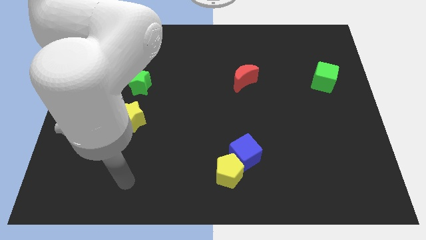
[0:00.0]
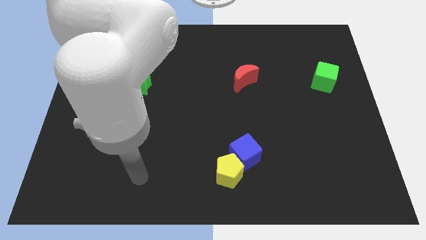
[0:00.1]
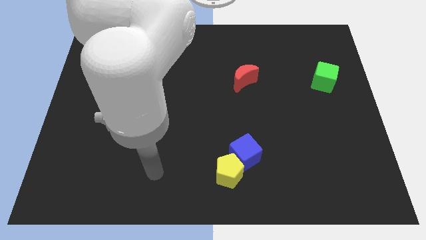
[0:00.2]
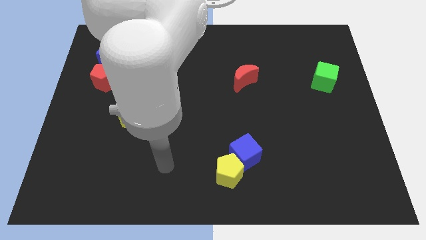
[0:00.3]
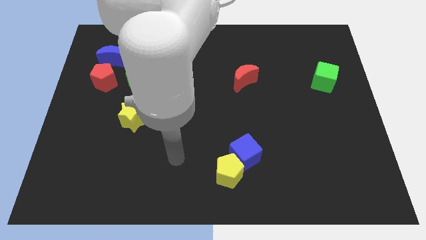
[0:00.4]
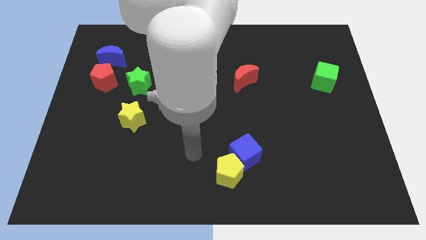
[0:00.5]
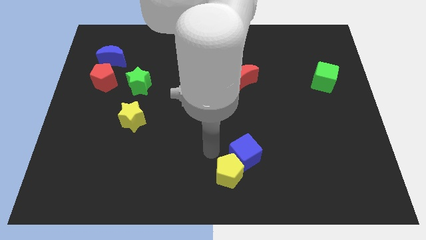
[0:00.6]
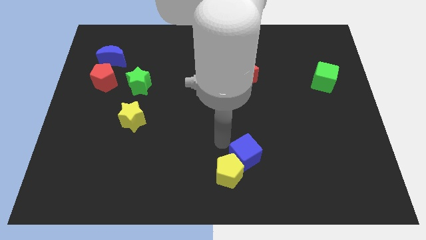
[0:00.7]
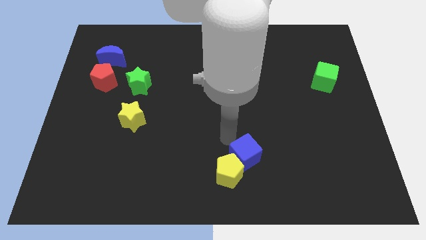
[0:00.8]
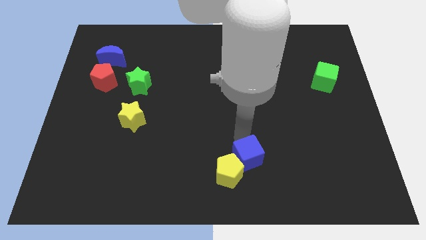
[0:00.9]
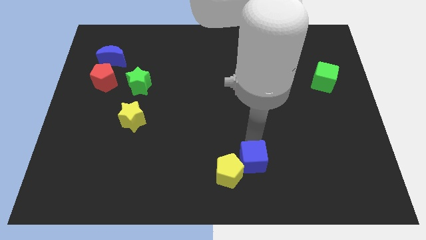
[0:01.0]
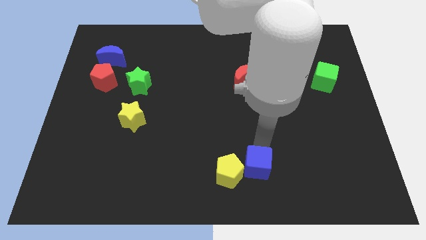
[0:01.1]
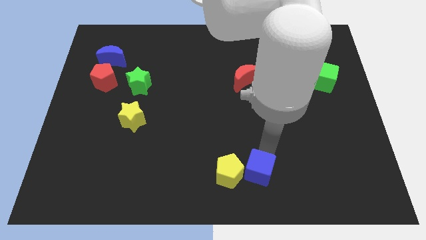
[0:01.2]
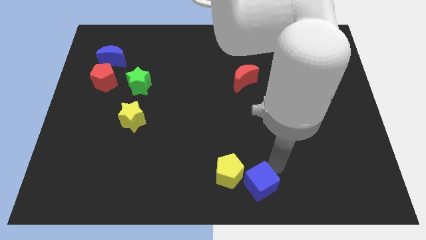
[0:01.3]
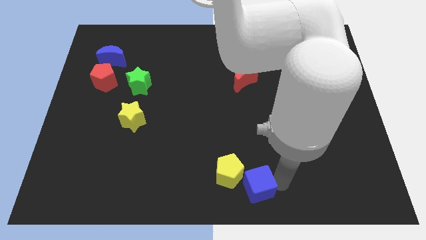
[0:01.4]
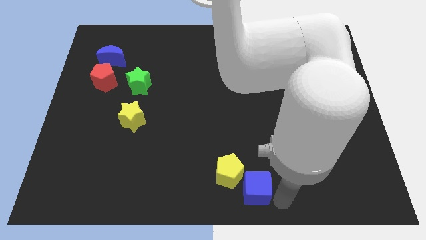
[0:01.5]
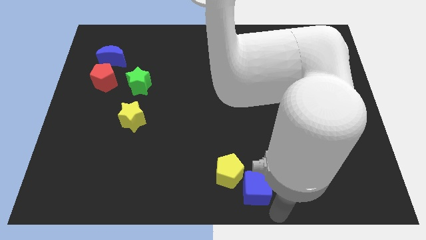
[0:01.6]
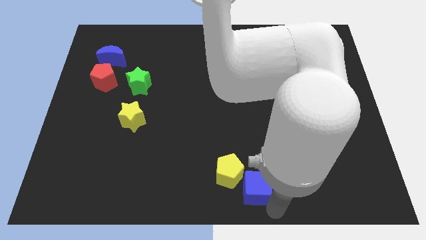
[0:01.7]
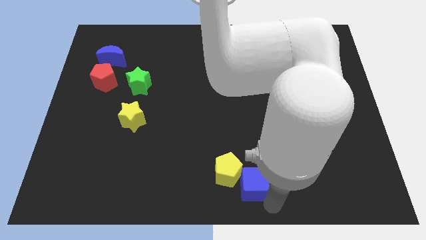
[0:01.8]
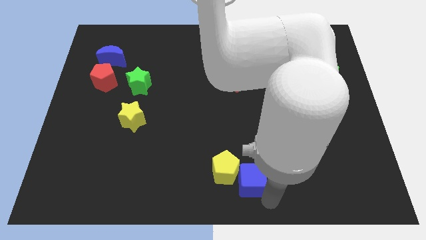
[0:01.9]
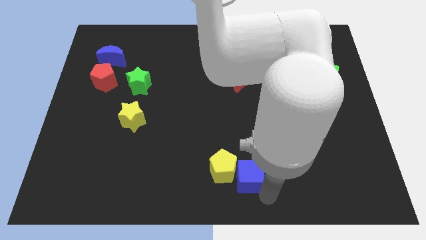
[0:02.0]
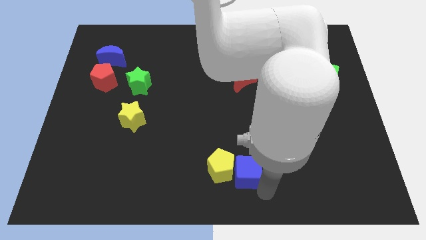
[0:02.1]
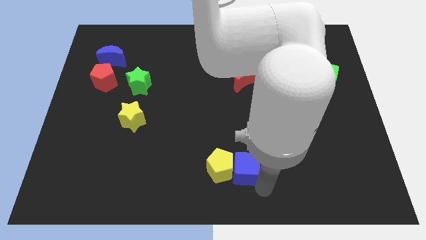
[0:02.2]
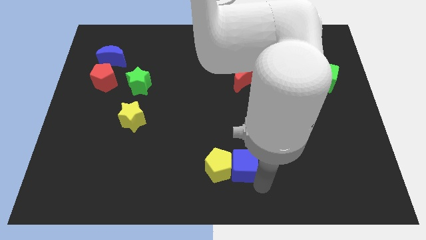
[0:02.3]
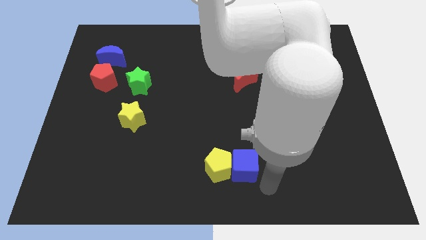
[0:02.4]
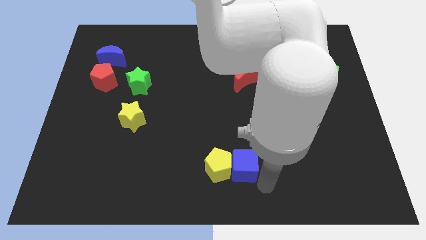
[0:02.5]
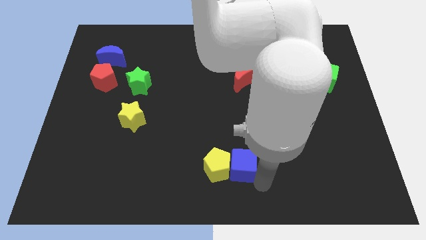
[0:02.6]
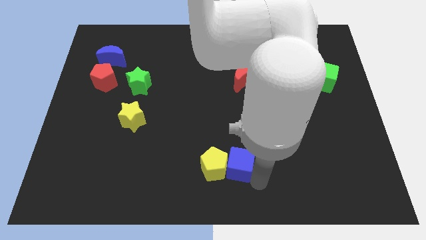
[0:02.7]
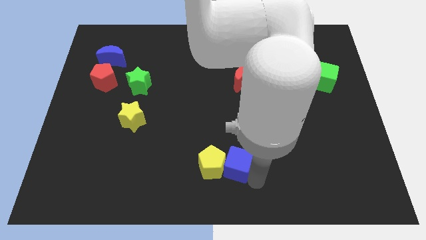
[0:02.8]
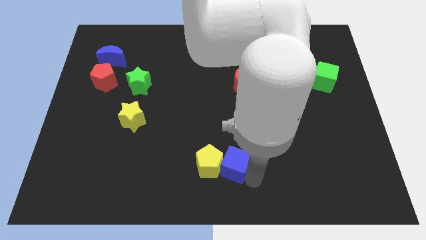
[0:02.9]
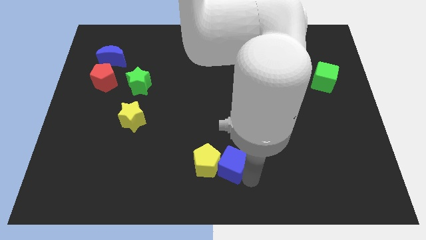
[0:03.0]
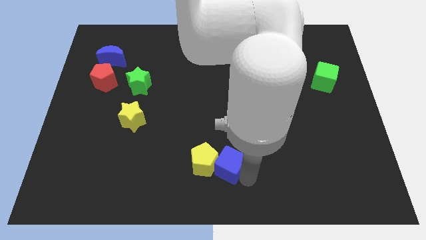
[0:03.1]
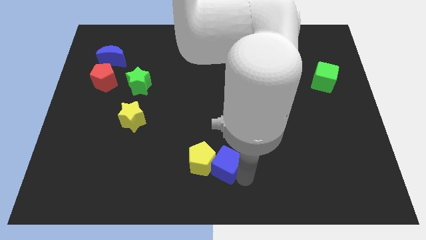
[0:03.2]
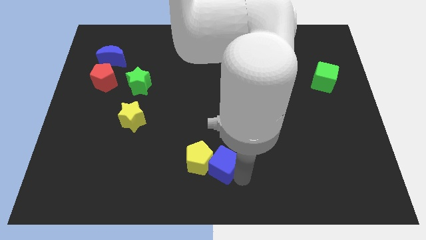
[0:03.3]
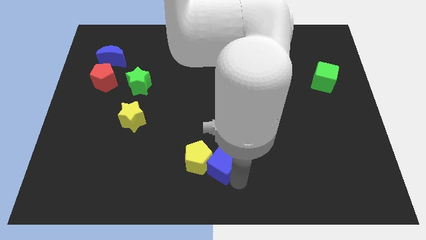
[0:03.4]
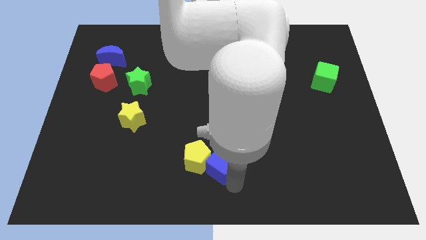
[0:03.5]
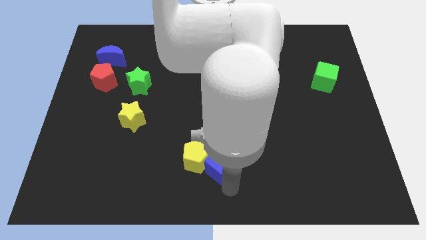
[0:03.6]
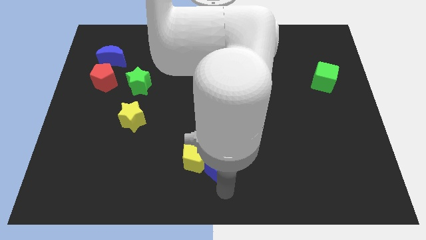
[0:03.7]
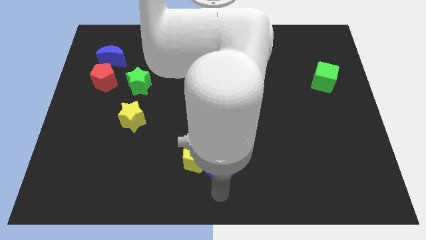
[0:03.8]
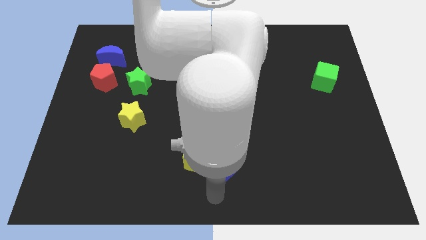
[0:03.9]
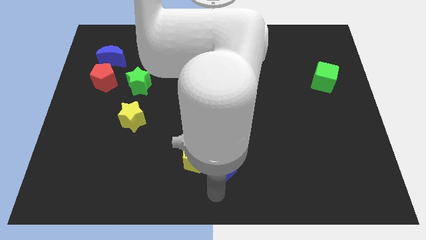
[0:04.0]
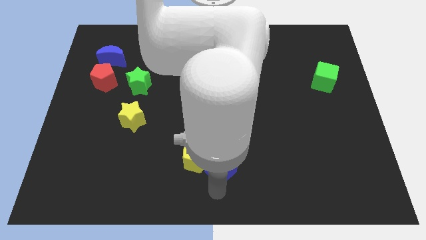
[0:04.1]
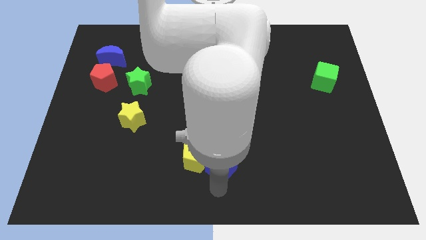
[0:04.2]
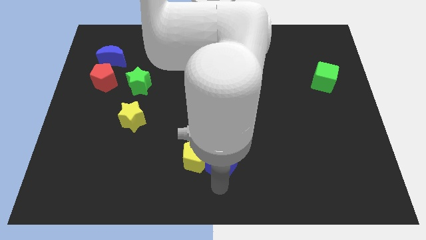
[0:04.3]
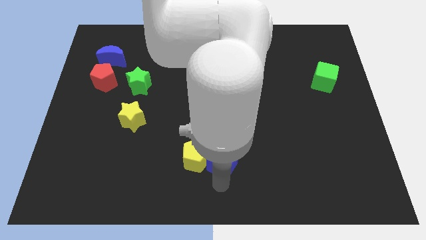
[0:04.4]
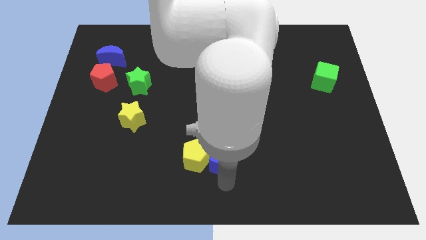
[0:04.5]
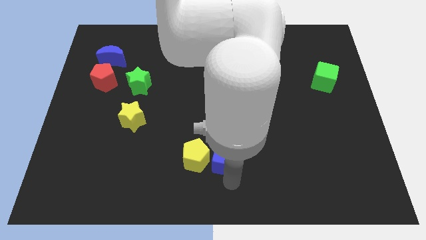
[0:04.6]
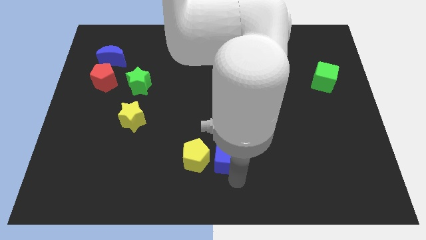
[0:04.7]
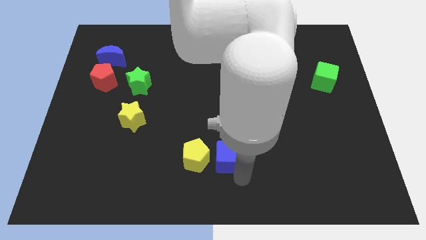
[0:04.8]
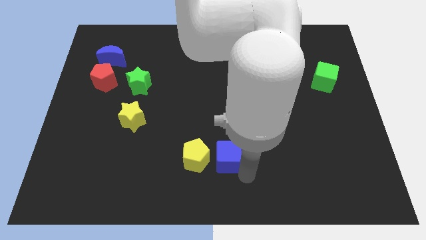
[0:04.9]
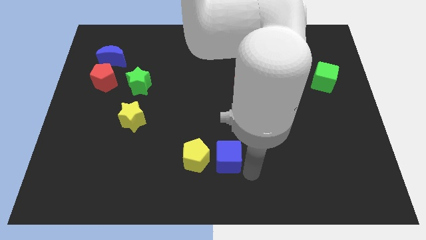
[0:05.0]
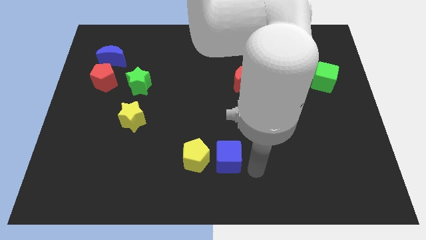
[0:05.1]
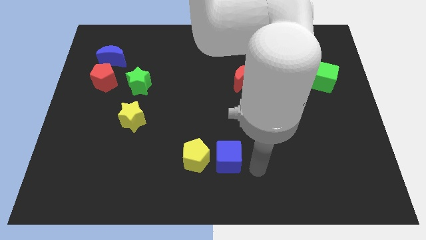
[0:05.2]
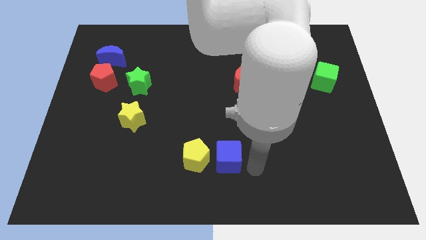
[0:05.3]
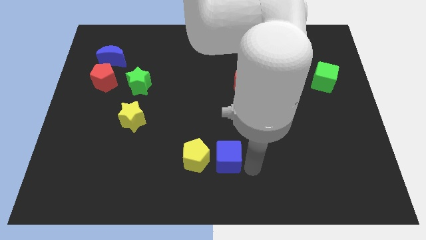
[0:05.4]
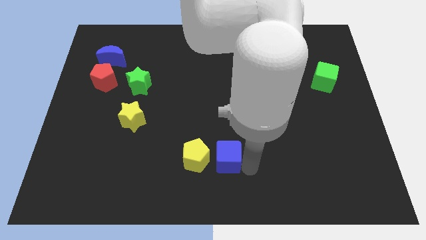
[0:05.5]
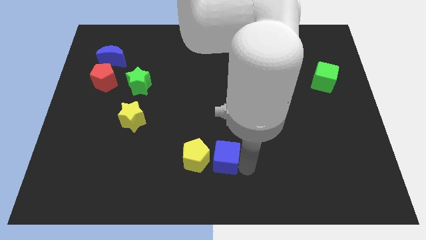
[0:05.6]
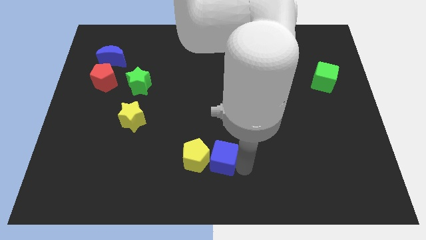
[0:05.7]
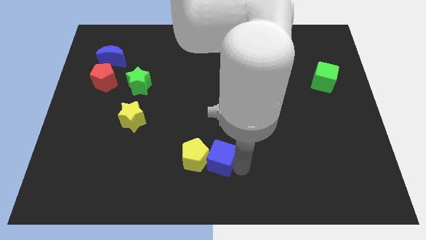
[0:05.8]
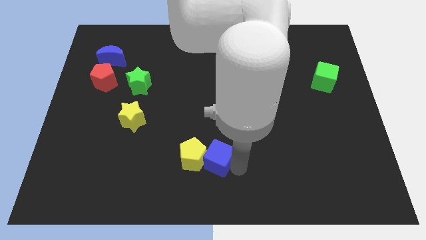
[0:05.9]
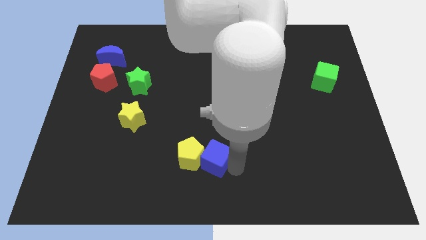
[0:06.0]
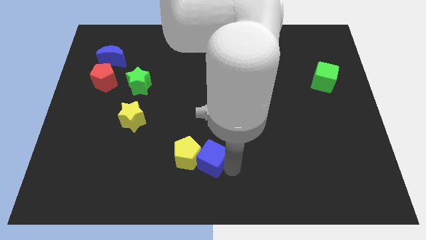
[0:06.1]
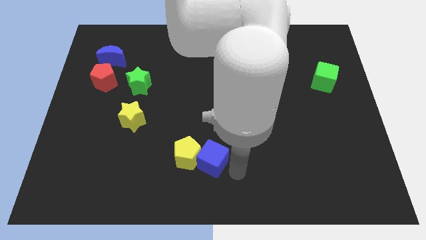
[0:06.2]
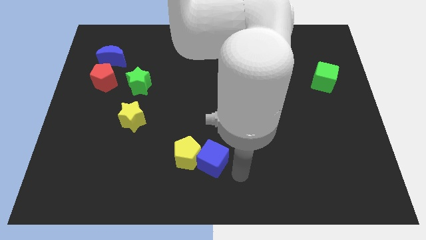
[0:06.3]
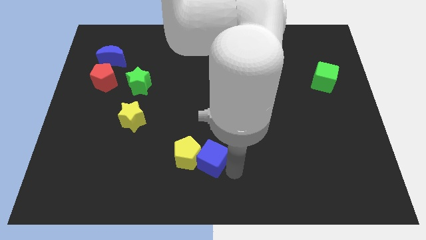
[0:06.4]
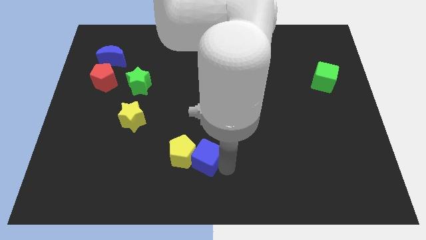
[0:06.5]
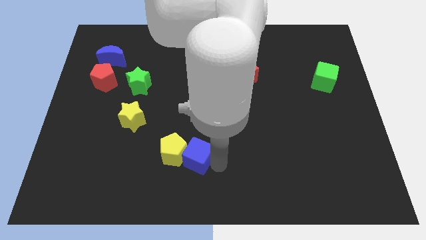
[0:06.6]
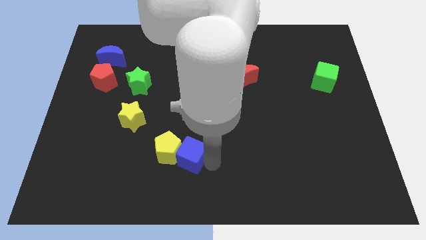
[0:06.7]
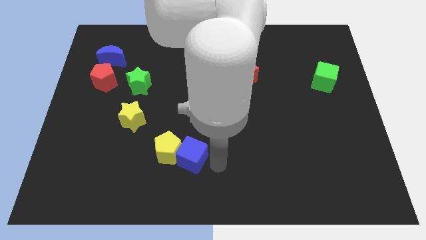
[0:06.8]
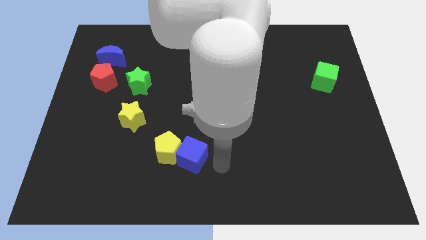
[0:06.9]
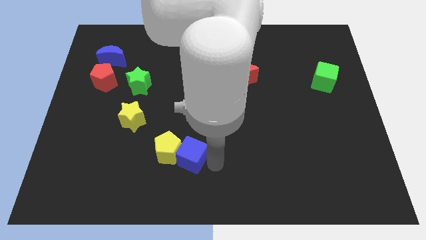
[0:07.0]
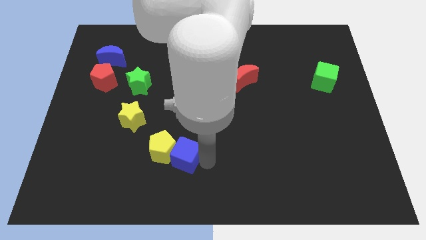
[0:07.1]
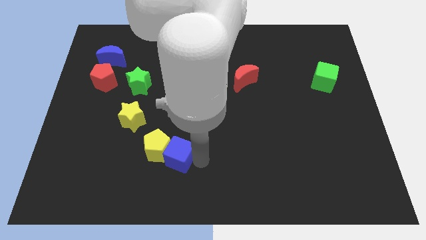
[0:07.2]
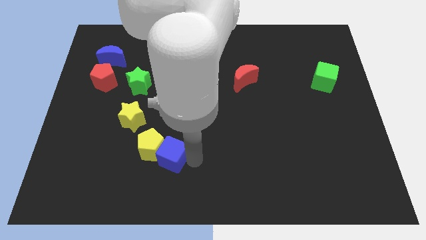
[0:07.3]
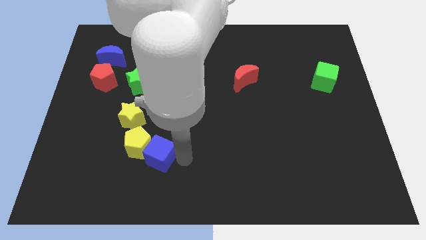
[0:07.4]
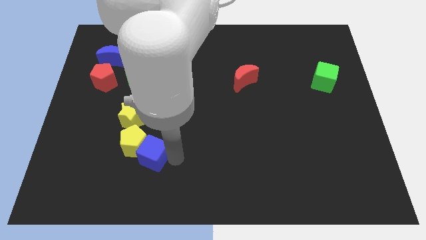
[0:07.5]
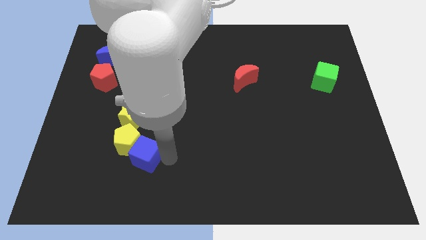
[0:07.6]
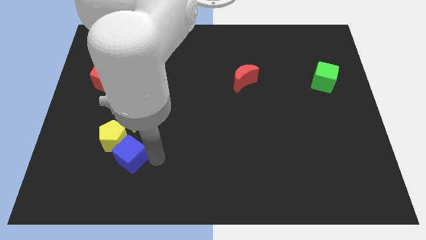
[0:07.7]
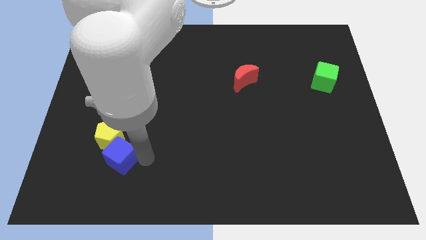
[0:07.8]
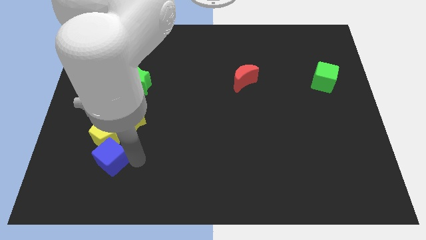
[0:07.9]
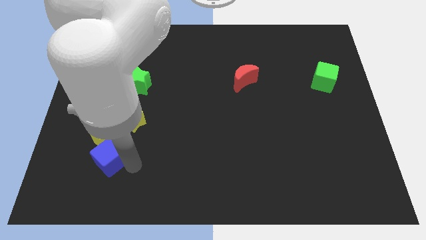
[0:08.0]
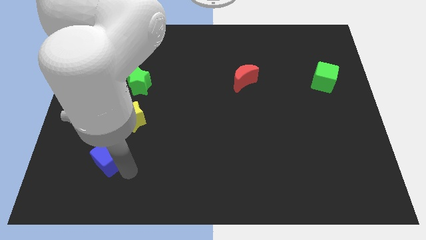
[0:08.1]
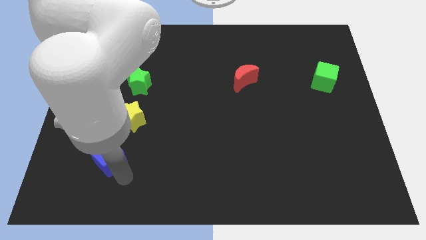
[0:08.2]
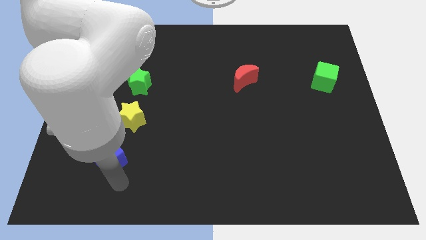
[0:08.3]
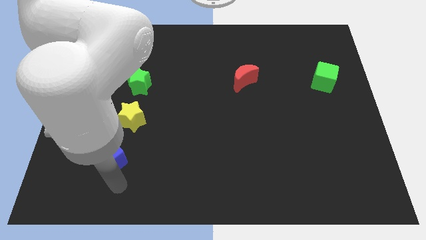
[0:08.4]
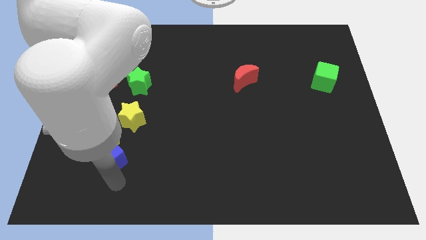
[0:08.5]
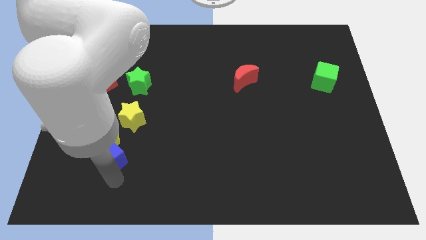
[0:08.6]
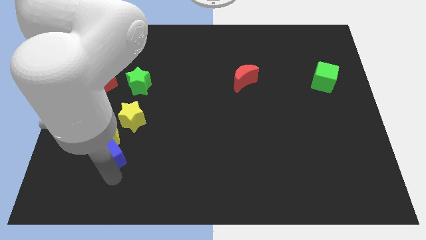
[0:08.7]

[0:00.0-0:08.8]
slide the blue cube to the bottom left side of the yellow star
